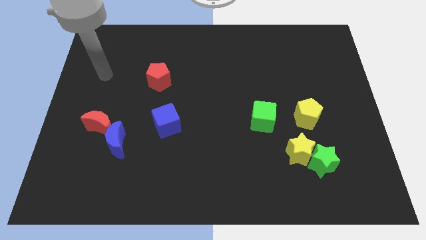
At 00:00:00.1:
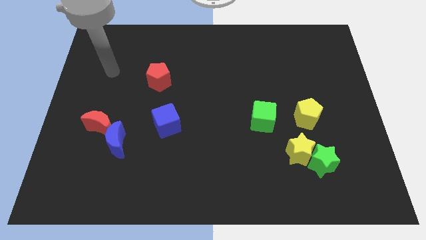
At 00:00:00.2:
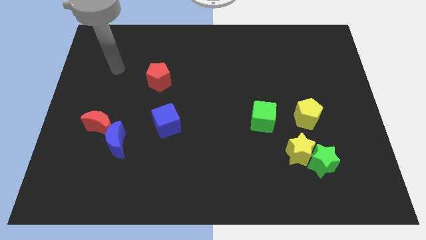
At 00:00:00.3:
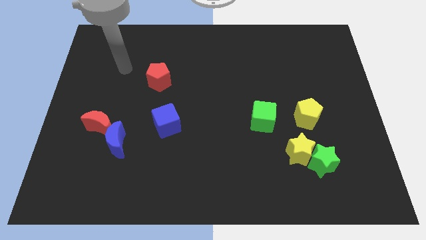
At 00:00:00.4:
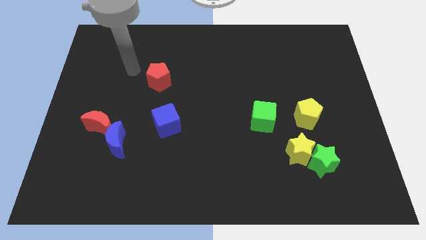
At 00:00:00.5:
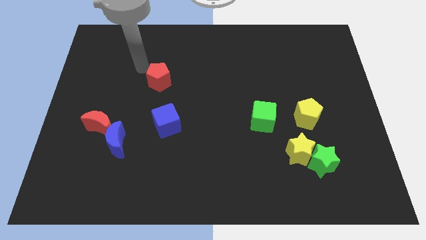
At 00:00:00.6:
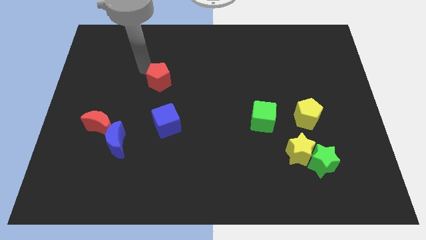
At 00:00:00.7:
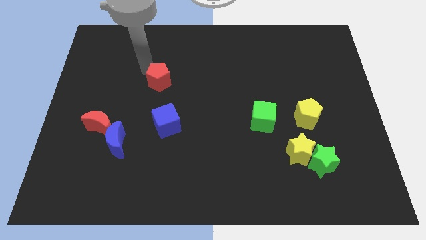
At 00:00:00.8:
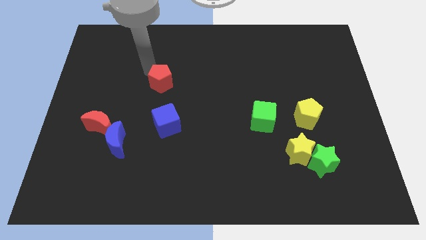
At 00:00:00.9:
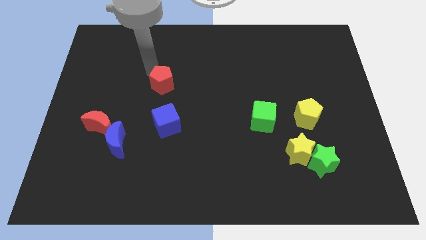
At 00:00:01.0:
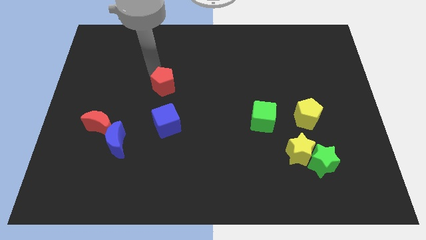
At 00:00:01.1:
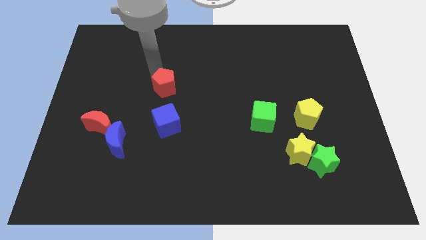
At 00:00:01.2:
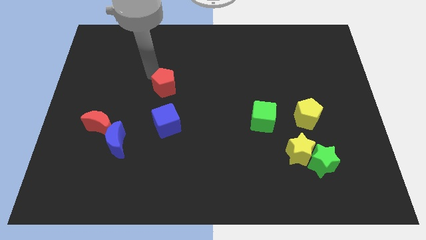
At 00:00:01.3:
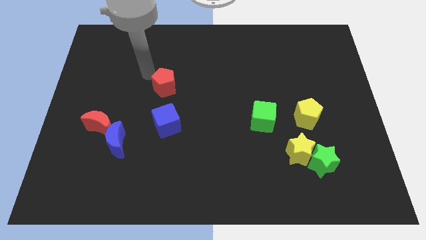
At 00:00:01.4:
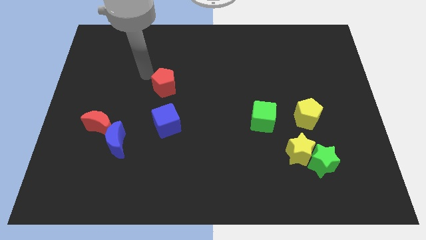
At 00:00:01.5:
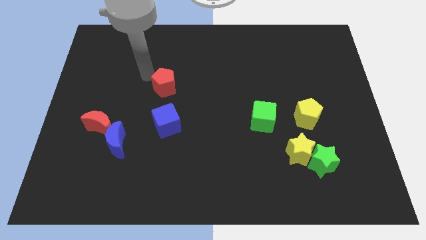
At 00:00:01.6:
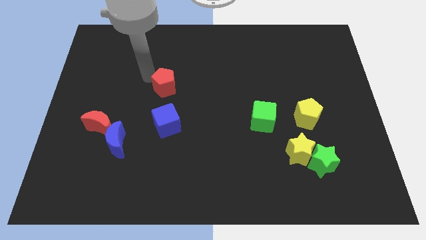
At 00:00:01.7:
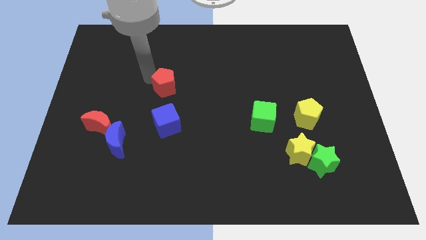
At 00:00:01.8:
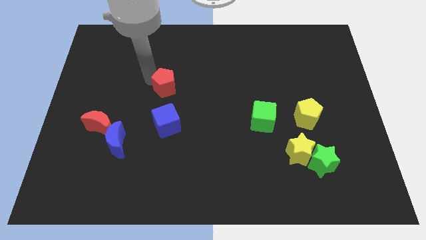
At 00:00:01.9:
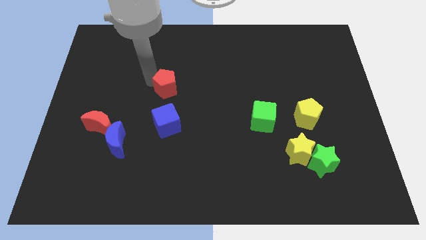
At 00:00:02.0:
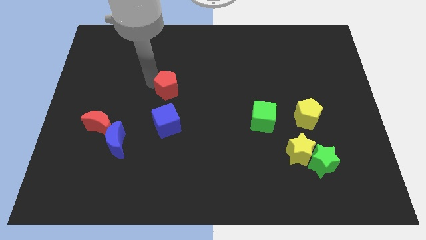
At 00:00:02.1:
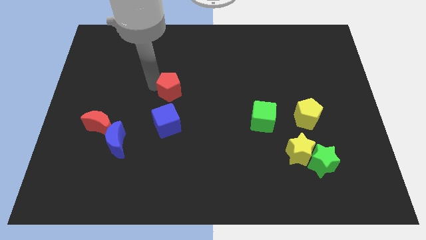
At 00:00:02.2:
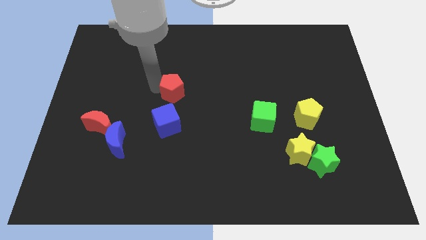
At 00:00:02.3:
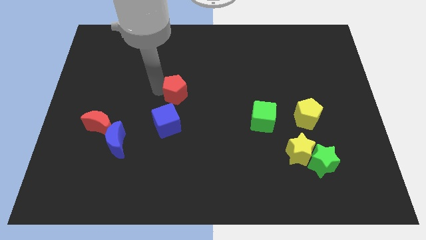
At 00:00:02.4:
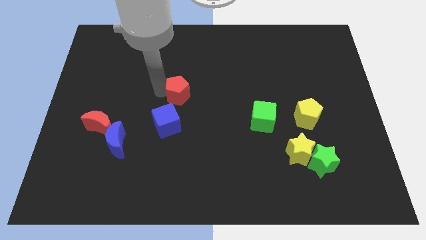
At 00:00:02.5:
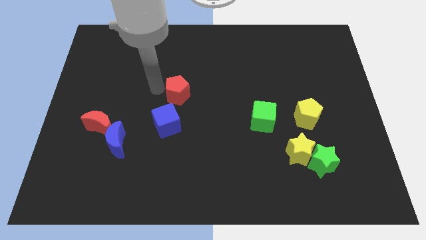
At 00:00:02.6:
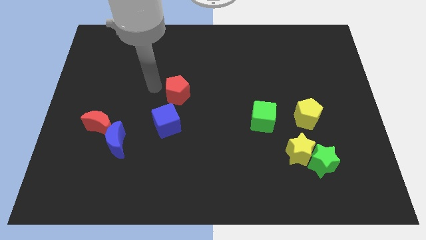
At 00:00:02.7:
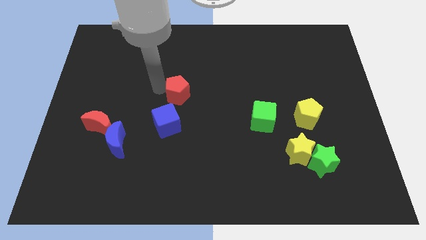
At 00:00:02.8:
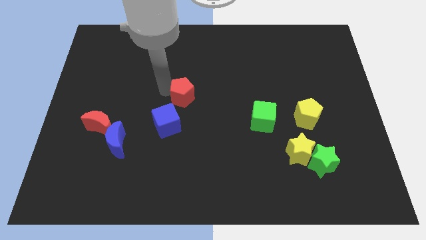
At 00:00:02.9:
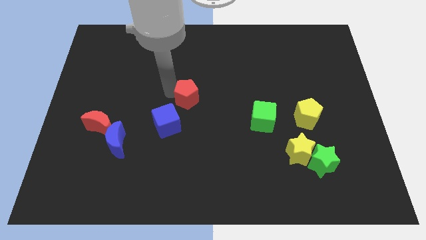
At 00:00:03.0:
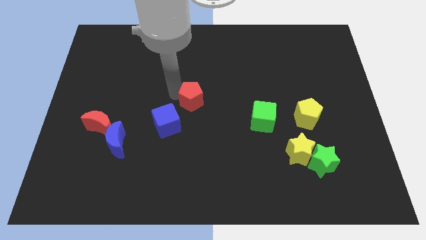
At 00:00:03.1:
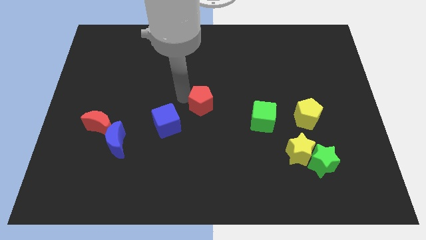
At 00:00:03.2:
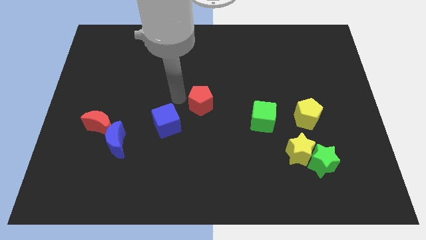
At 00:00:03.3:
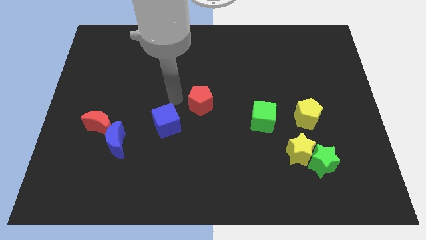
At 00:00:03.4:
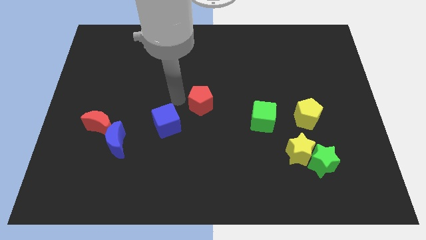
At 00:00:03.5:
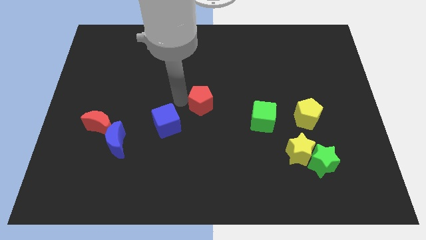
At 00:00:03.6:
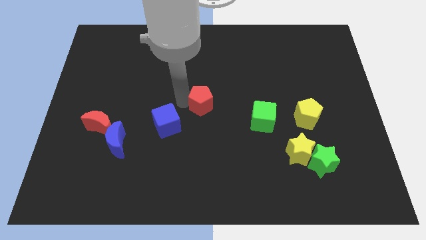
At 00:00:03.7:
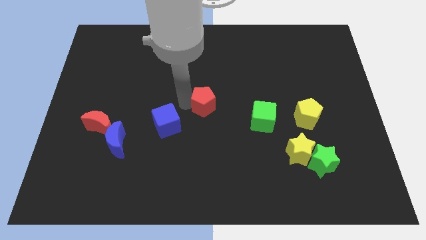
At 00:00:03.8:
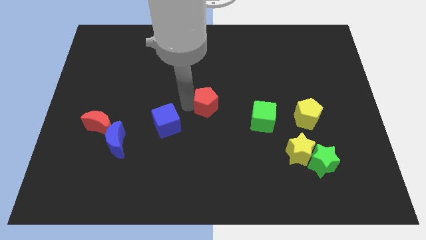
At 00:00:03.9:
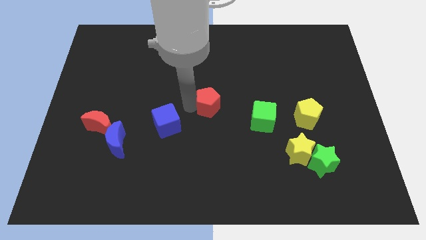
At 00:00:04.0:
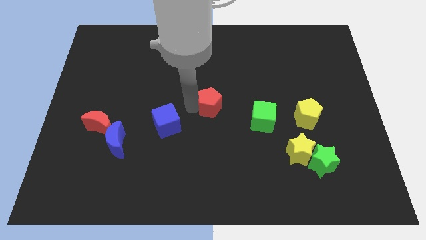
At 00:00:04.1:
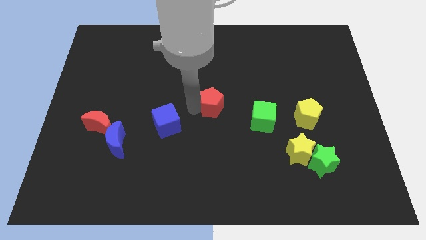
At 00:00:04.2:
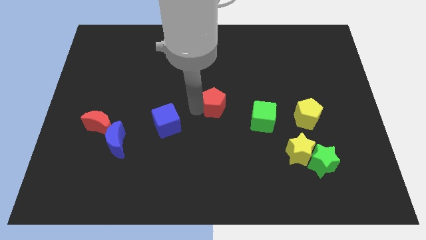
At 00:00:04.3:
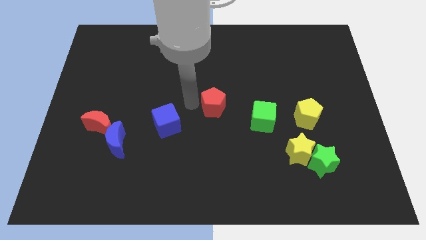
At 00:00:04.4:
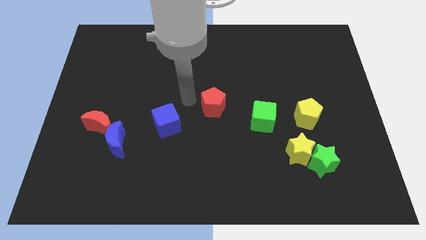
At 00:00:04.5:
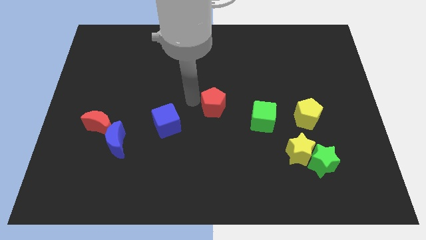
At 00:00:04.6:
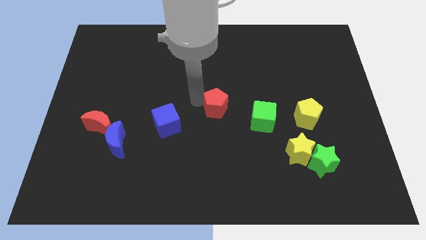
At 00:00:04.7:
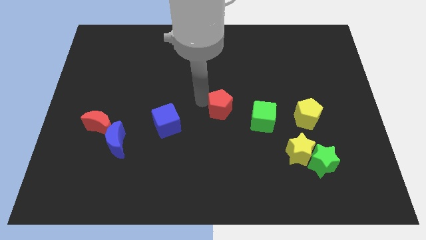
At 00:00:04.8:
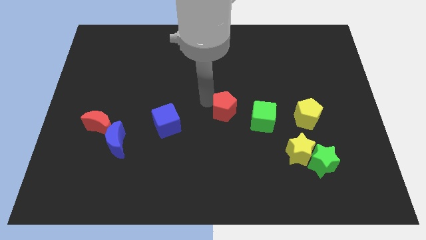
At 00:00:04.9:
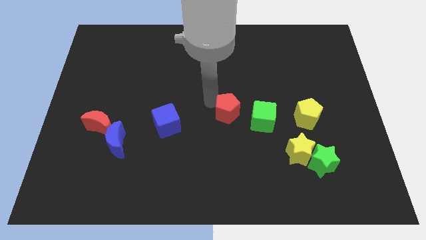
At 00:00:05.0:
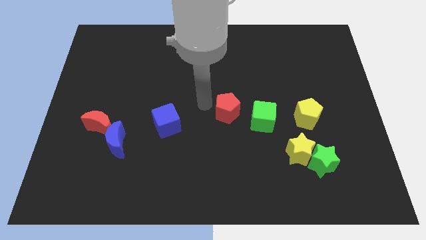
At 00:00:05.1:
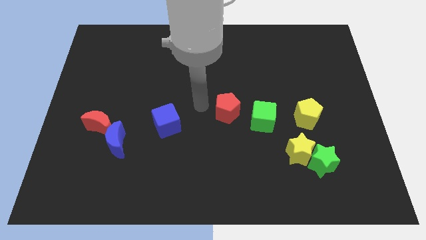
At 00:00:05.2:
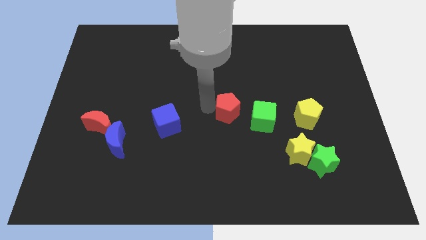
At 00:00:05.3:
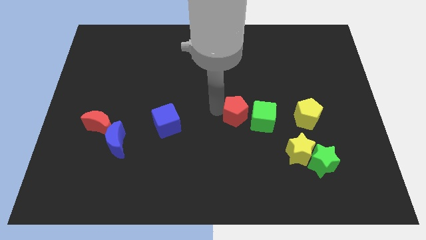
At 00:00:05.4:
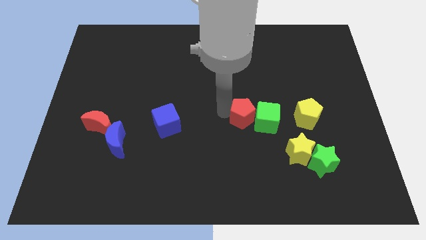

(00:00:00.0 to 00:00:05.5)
put the red pentagon close to the green cube

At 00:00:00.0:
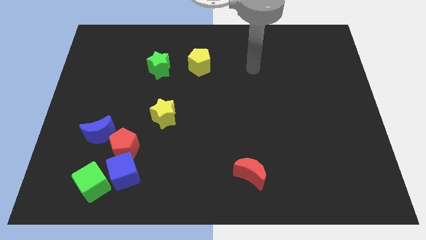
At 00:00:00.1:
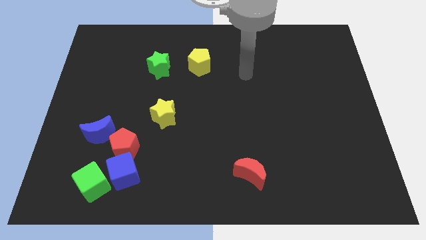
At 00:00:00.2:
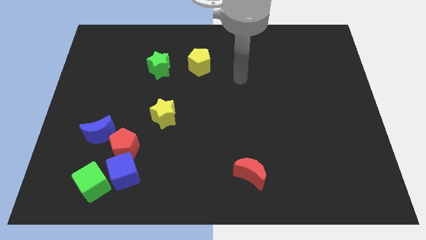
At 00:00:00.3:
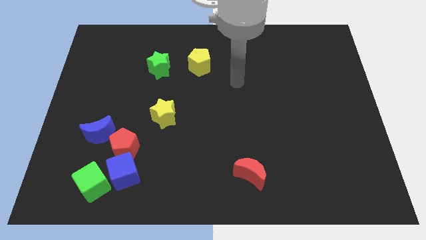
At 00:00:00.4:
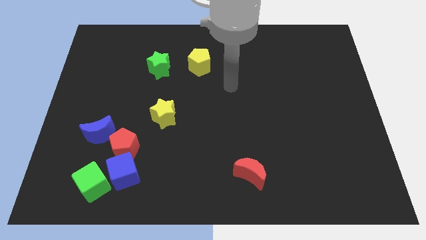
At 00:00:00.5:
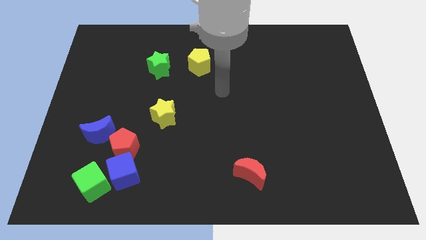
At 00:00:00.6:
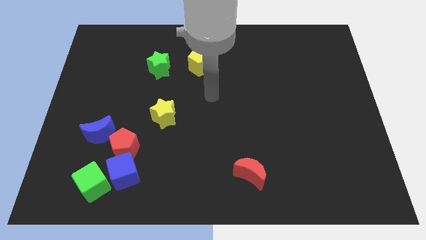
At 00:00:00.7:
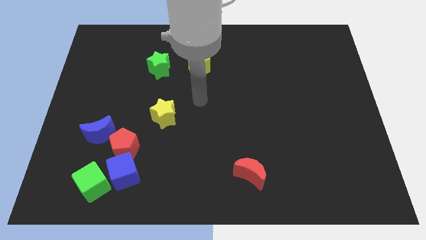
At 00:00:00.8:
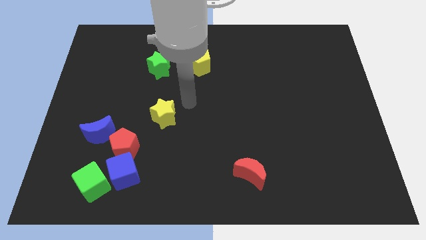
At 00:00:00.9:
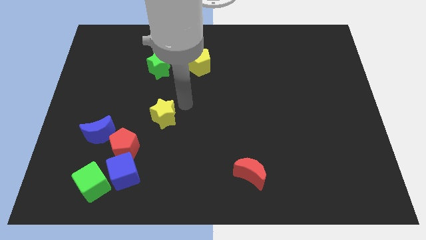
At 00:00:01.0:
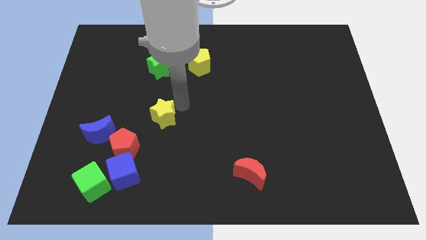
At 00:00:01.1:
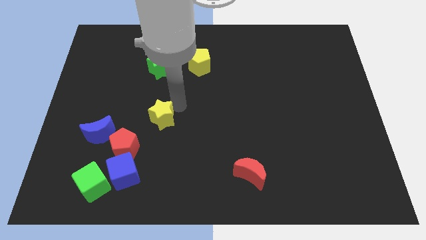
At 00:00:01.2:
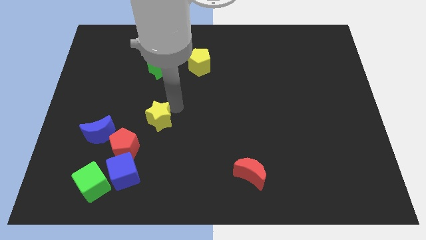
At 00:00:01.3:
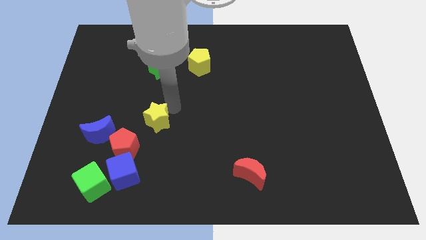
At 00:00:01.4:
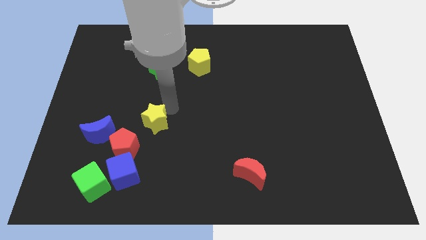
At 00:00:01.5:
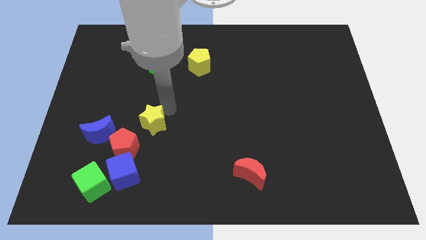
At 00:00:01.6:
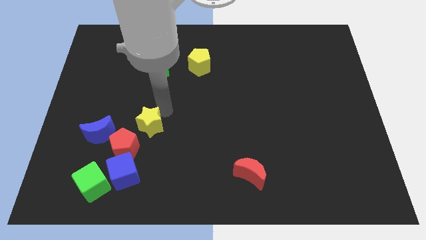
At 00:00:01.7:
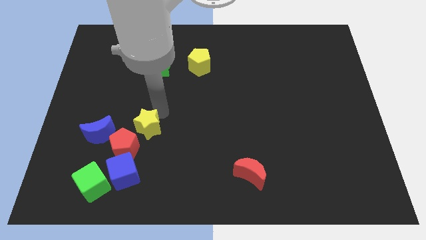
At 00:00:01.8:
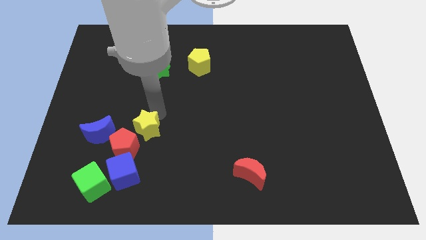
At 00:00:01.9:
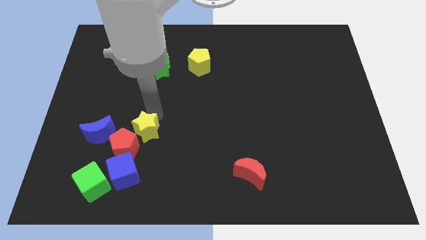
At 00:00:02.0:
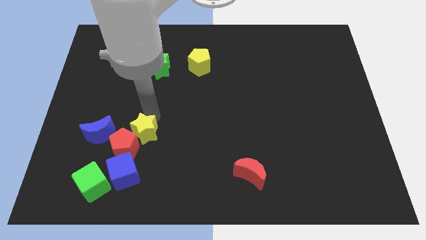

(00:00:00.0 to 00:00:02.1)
move the yellow star to the red pentagon
